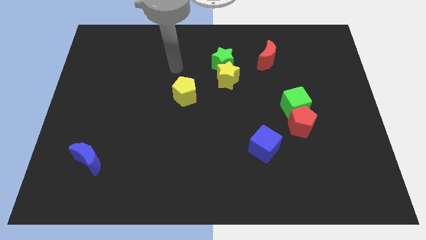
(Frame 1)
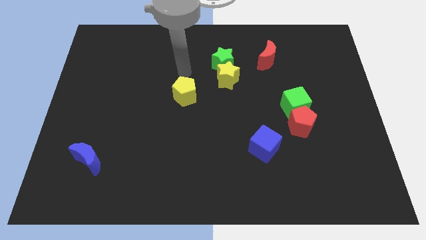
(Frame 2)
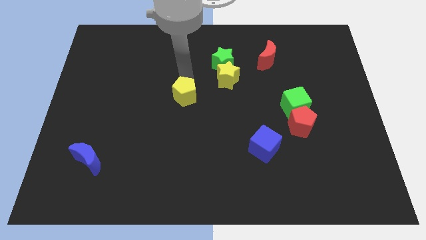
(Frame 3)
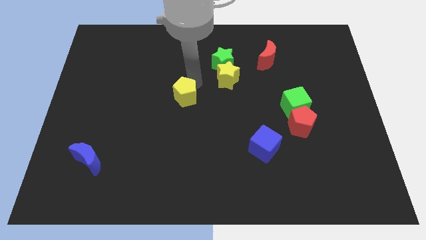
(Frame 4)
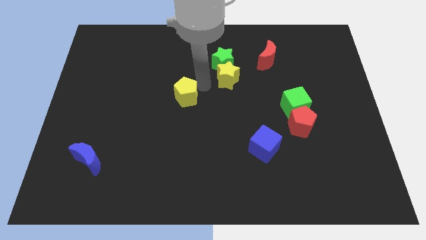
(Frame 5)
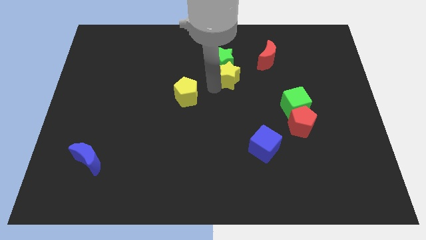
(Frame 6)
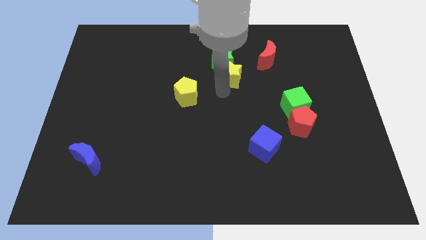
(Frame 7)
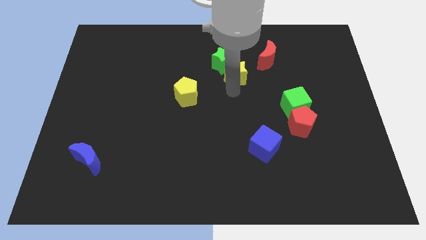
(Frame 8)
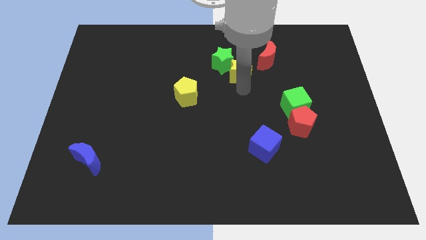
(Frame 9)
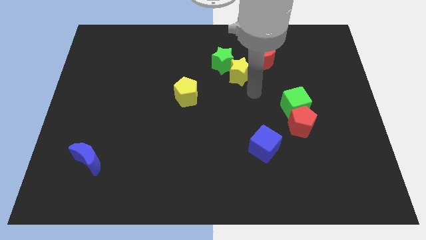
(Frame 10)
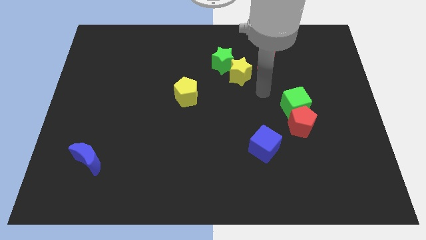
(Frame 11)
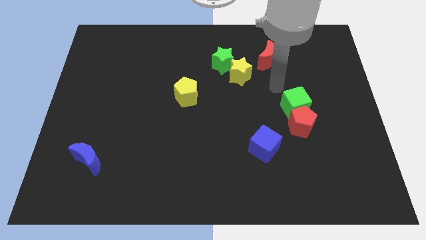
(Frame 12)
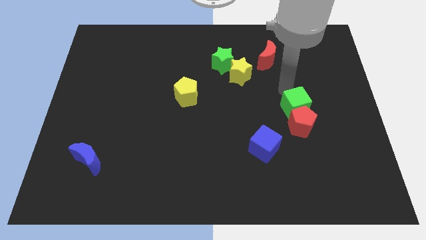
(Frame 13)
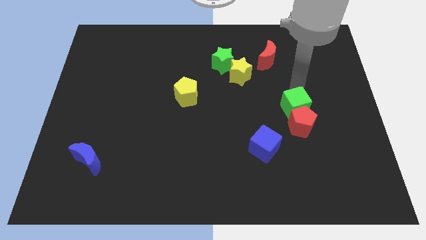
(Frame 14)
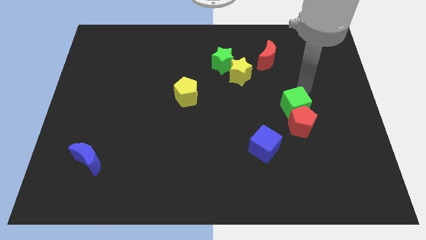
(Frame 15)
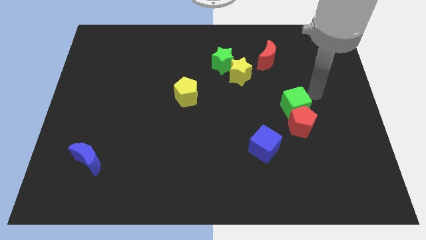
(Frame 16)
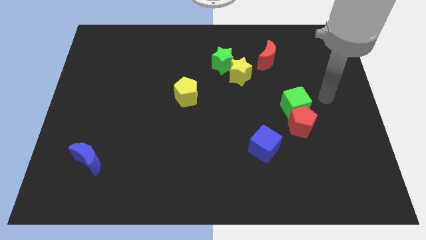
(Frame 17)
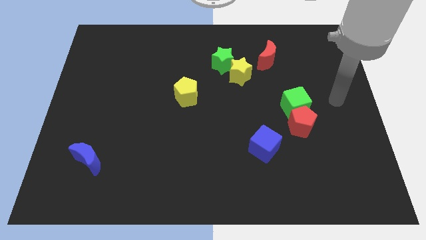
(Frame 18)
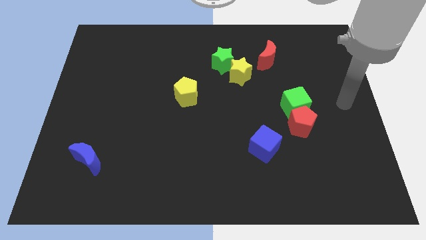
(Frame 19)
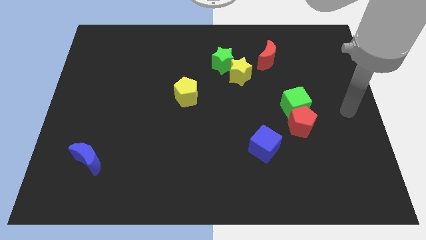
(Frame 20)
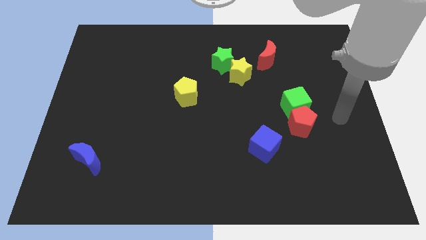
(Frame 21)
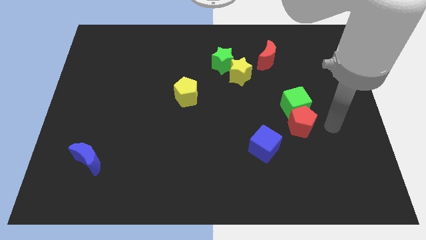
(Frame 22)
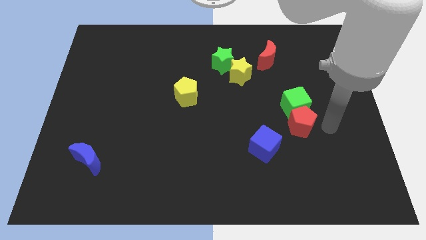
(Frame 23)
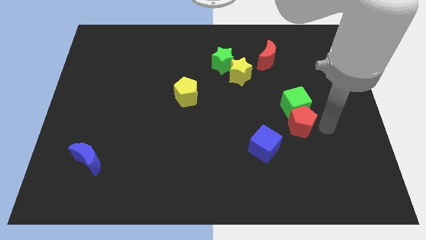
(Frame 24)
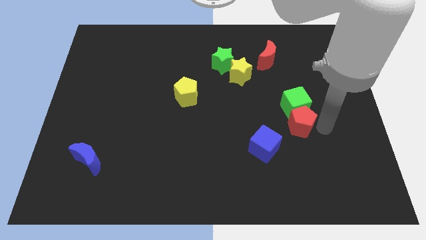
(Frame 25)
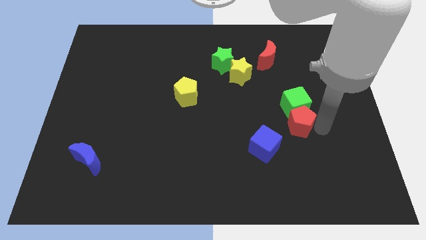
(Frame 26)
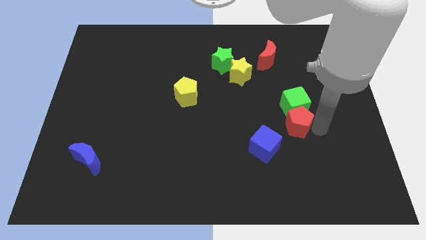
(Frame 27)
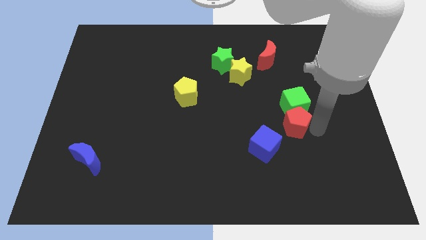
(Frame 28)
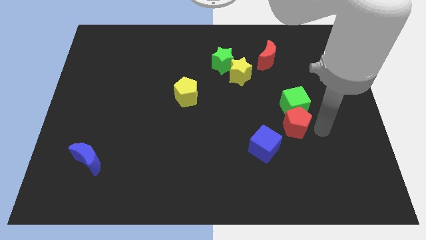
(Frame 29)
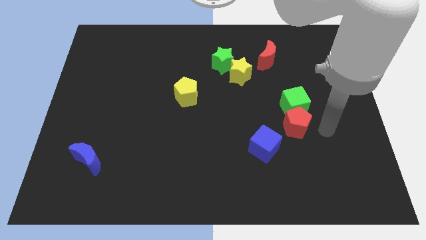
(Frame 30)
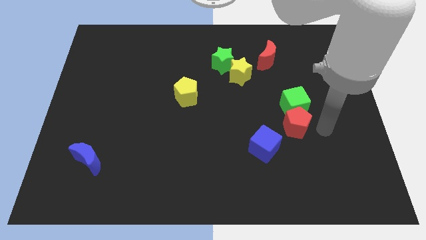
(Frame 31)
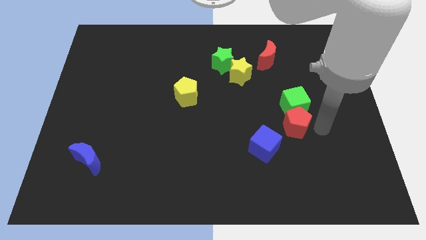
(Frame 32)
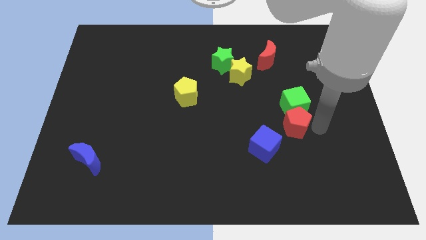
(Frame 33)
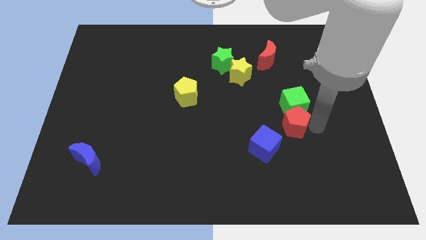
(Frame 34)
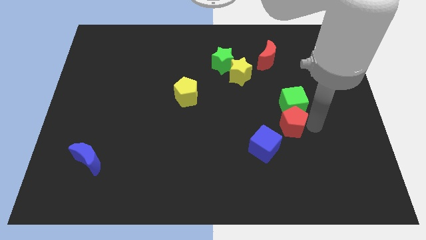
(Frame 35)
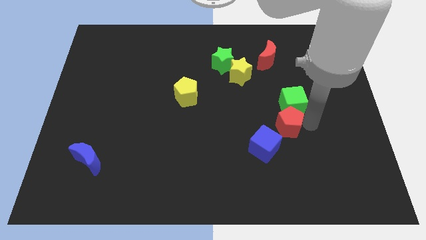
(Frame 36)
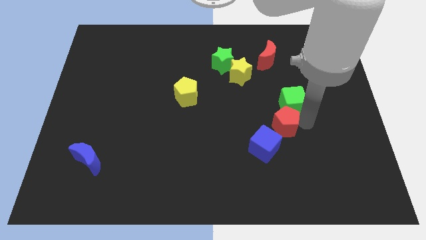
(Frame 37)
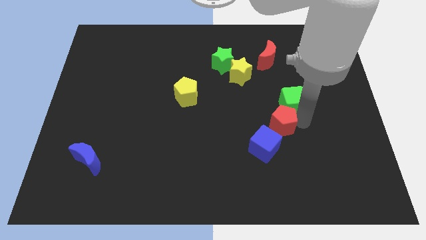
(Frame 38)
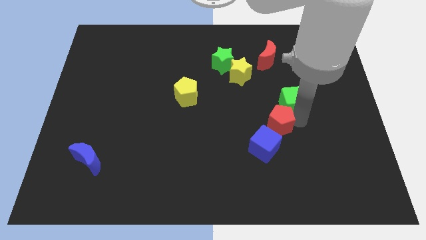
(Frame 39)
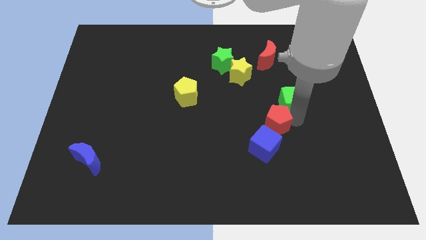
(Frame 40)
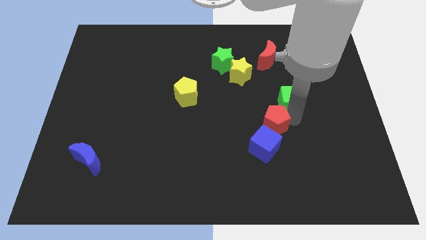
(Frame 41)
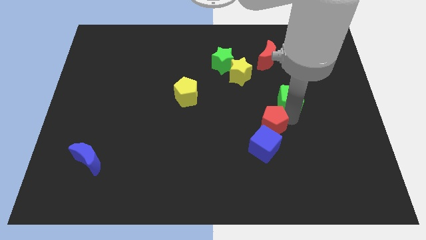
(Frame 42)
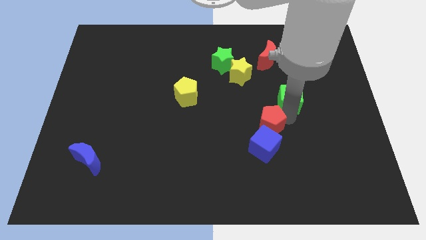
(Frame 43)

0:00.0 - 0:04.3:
slide the red pentagon a little bit to the left

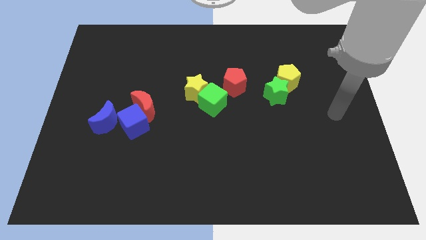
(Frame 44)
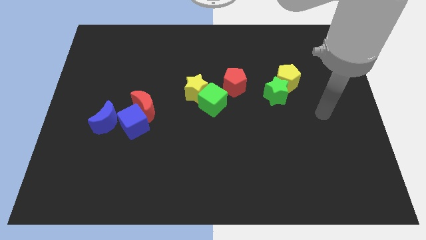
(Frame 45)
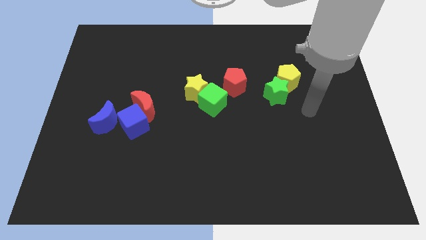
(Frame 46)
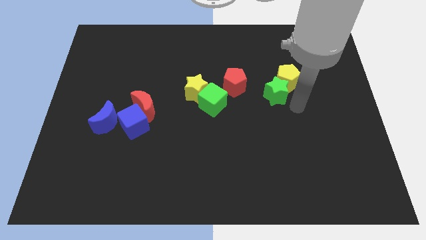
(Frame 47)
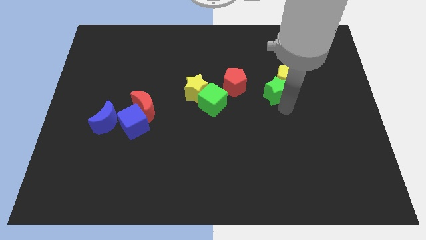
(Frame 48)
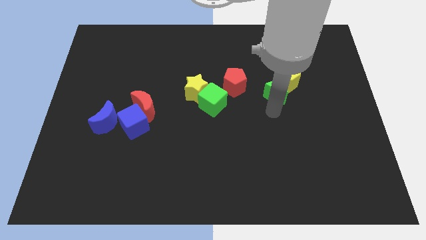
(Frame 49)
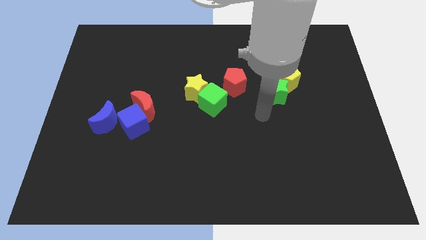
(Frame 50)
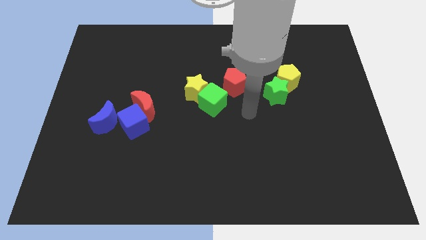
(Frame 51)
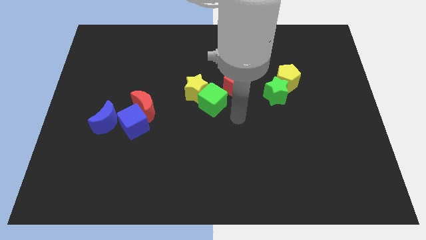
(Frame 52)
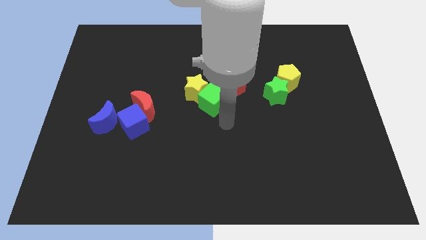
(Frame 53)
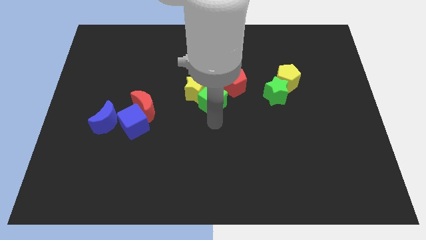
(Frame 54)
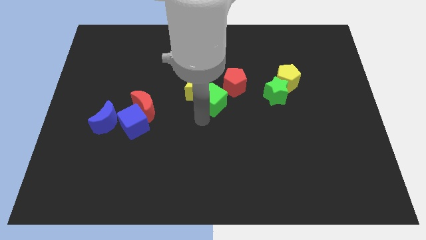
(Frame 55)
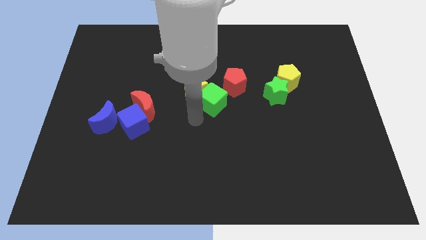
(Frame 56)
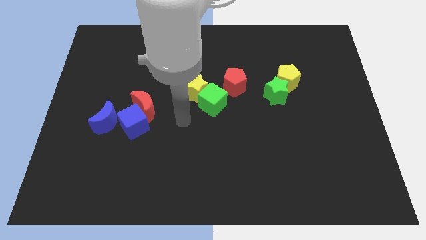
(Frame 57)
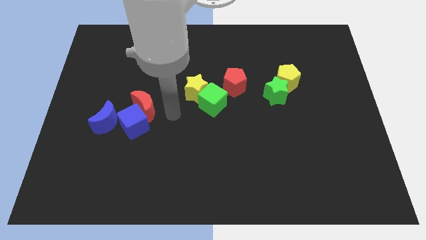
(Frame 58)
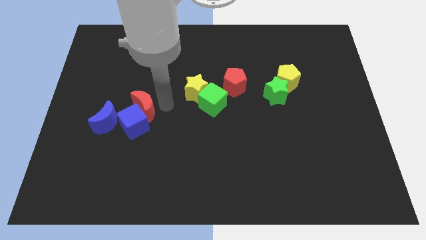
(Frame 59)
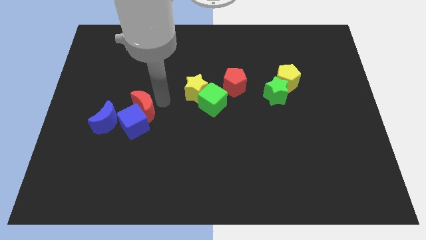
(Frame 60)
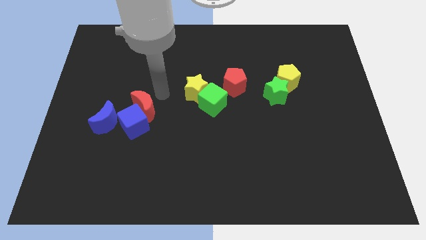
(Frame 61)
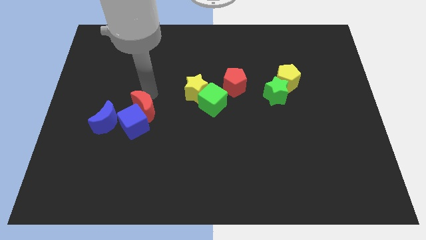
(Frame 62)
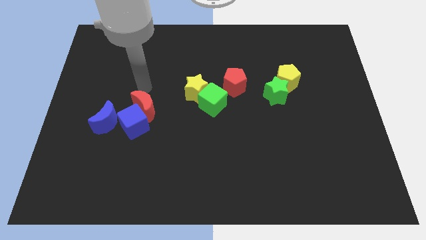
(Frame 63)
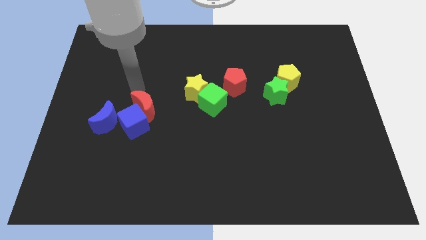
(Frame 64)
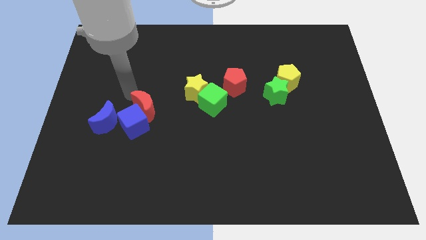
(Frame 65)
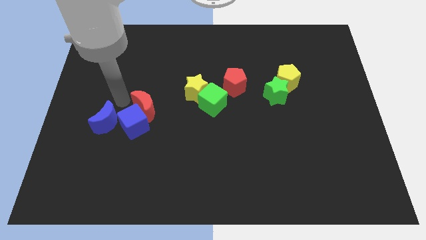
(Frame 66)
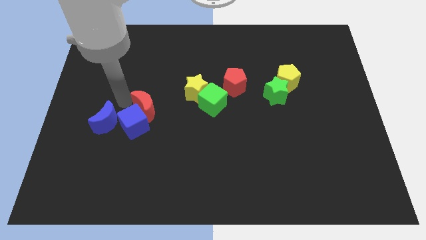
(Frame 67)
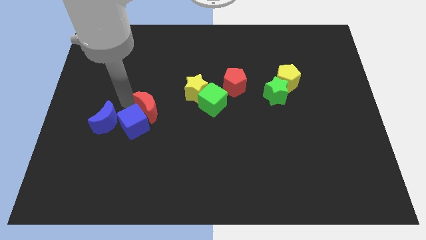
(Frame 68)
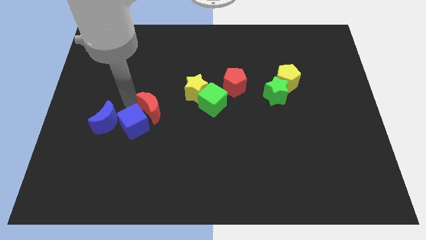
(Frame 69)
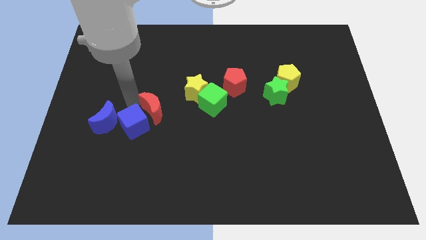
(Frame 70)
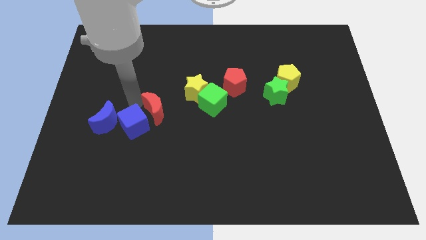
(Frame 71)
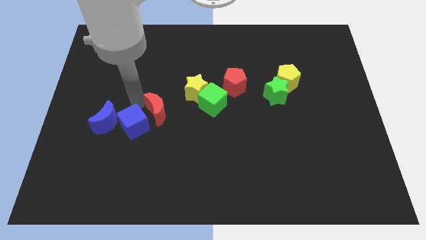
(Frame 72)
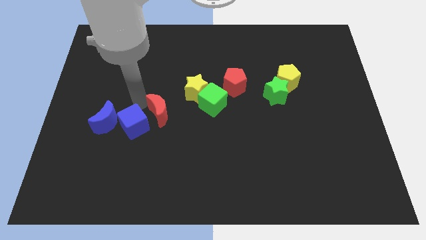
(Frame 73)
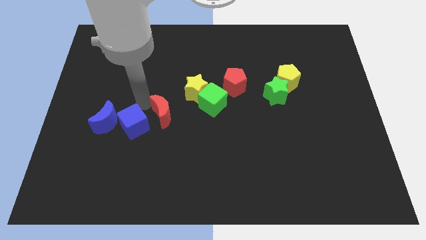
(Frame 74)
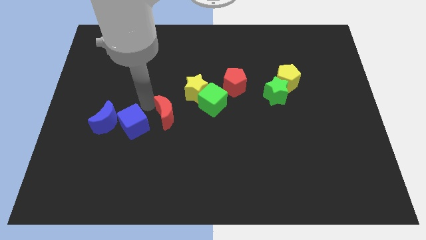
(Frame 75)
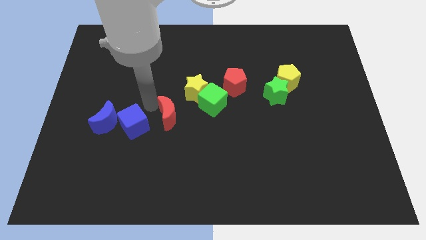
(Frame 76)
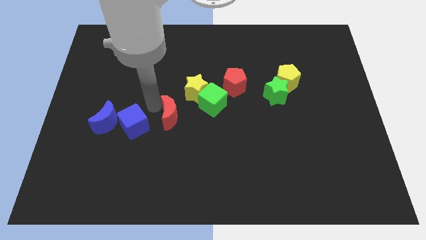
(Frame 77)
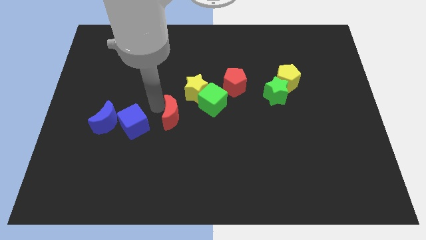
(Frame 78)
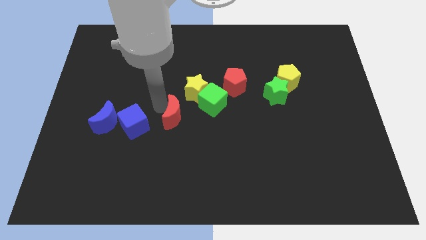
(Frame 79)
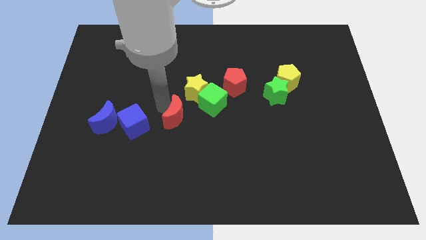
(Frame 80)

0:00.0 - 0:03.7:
slightly move the red moon right
